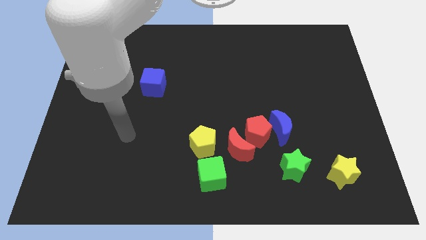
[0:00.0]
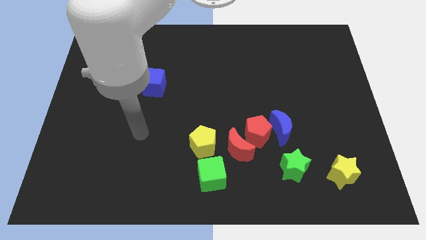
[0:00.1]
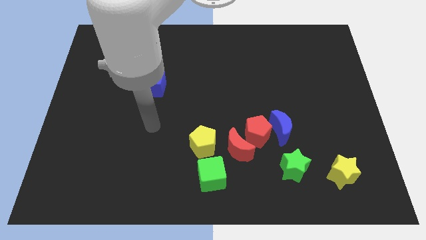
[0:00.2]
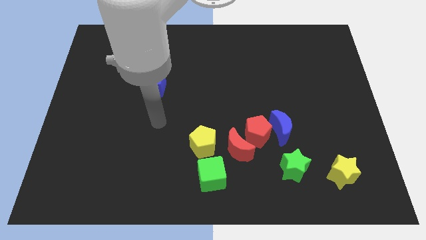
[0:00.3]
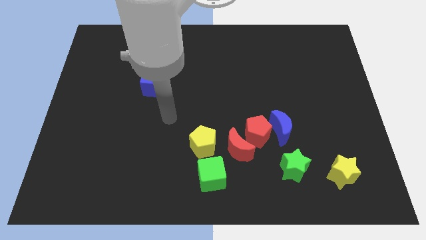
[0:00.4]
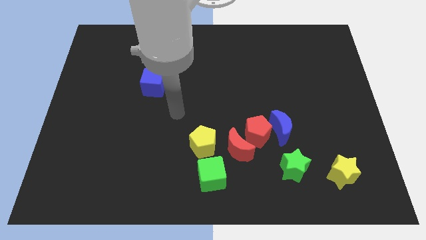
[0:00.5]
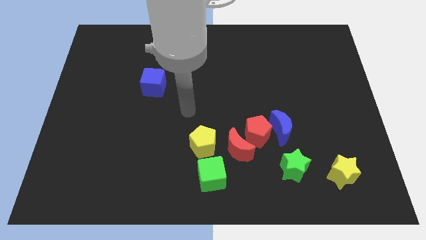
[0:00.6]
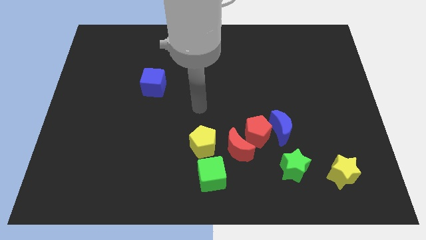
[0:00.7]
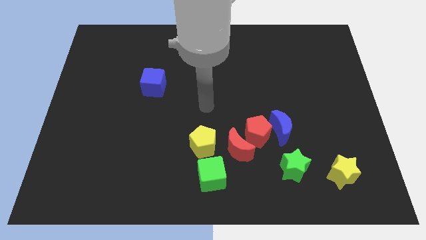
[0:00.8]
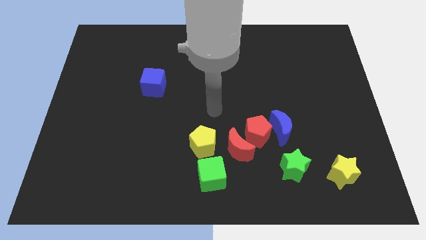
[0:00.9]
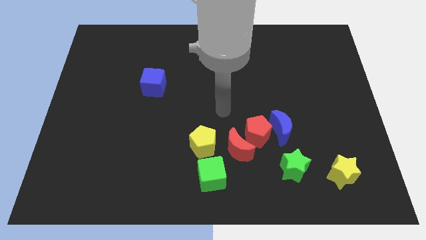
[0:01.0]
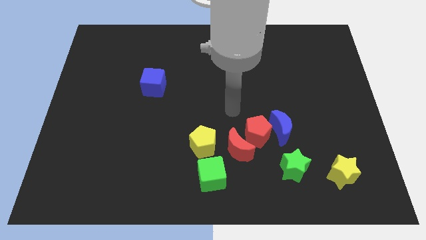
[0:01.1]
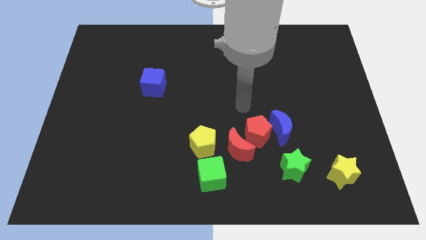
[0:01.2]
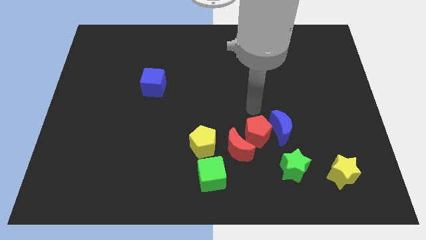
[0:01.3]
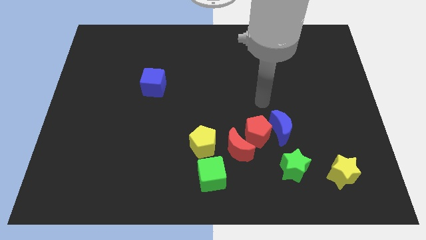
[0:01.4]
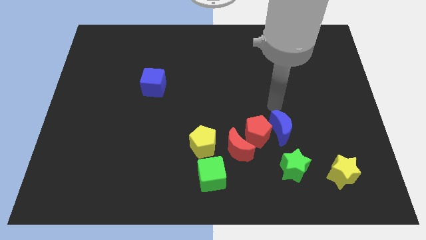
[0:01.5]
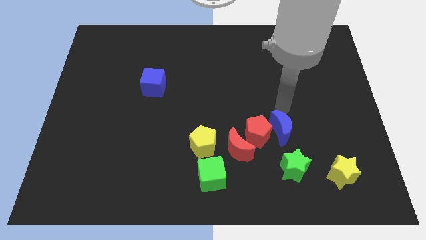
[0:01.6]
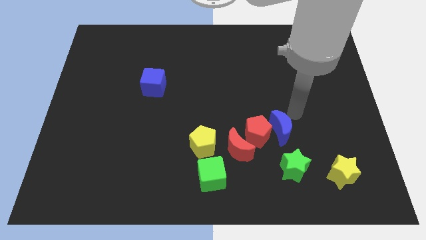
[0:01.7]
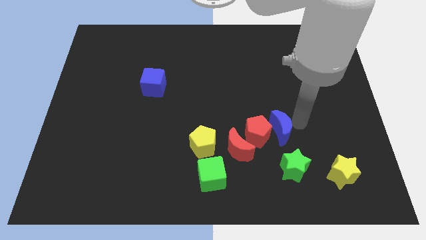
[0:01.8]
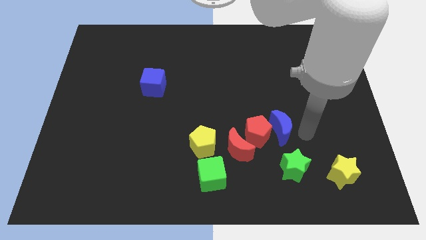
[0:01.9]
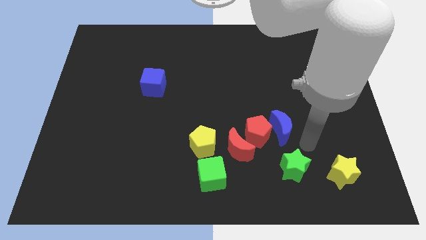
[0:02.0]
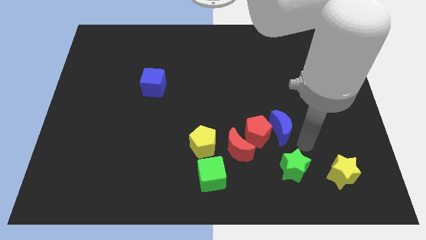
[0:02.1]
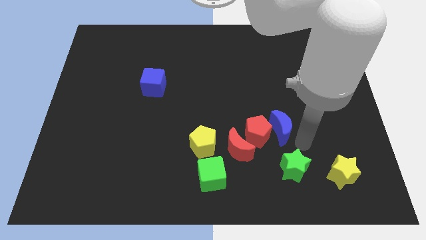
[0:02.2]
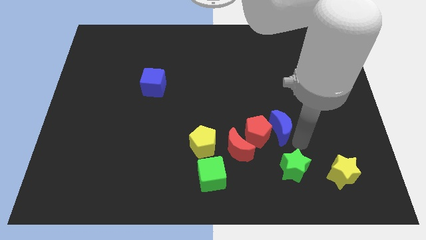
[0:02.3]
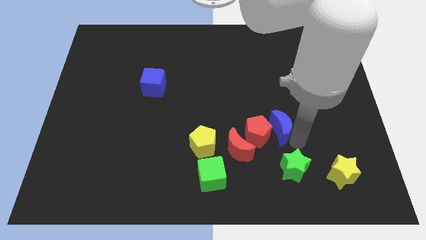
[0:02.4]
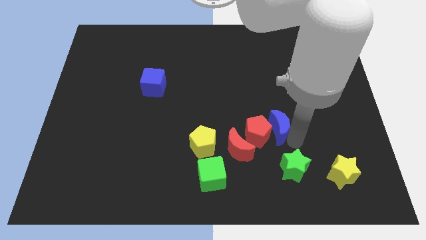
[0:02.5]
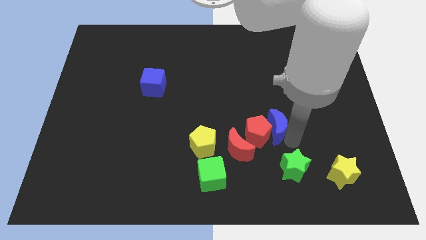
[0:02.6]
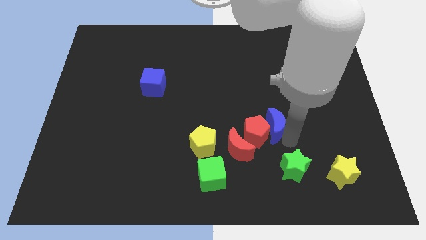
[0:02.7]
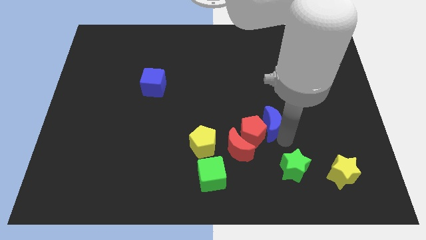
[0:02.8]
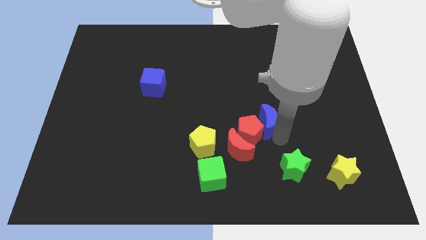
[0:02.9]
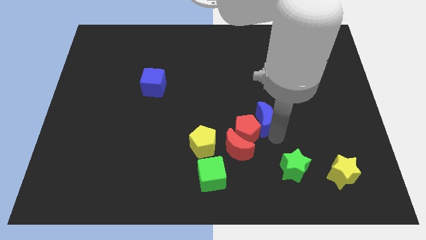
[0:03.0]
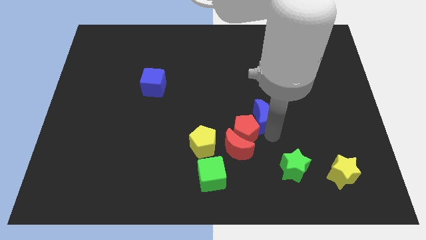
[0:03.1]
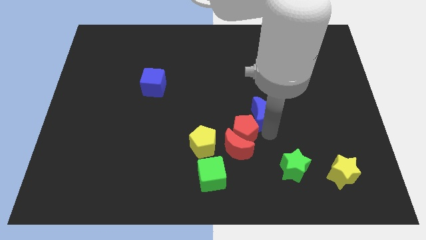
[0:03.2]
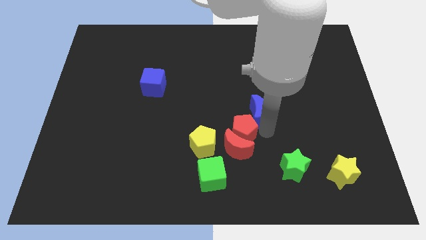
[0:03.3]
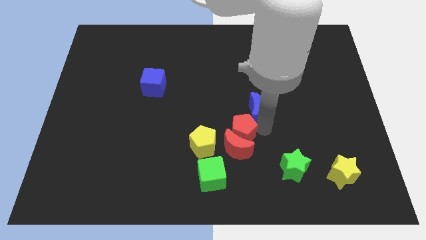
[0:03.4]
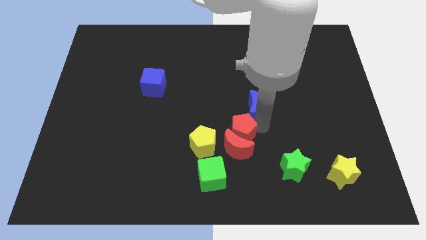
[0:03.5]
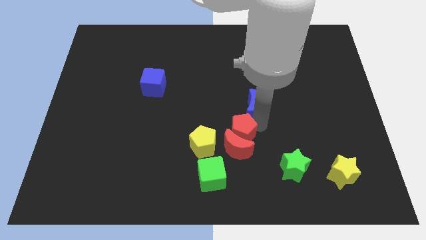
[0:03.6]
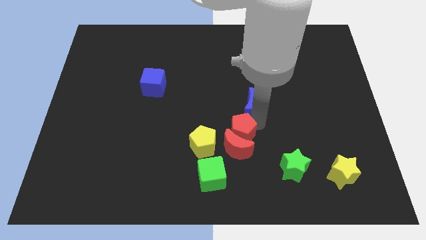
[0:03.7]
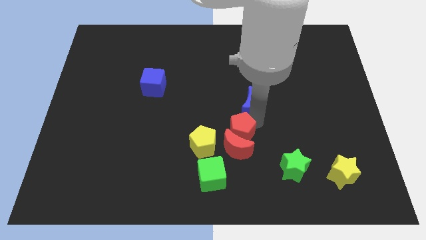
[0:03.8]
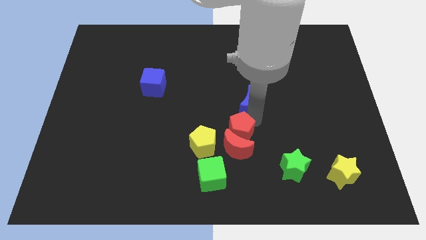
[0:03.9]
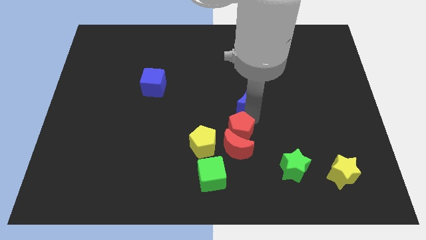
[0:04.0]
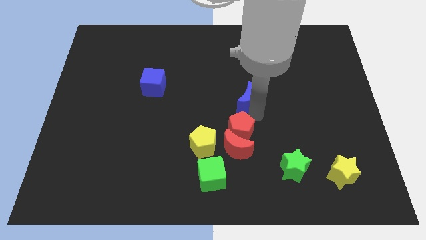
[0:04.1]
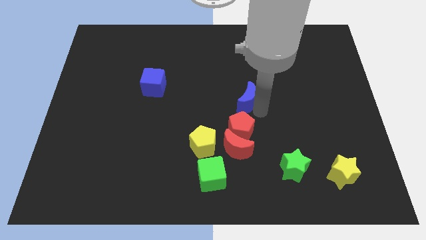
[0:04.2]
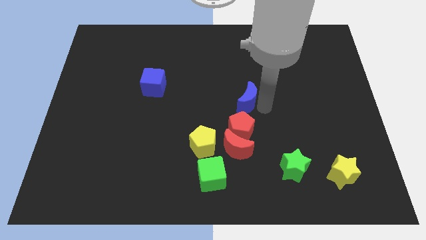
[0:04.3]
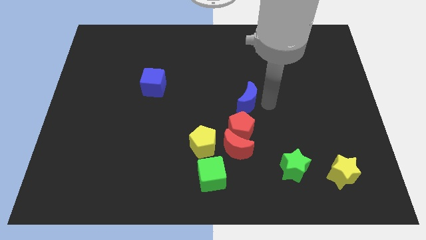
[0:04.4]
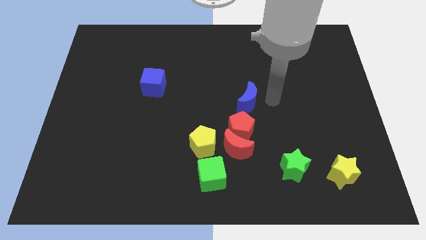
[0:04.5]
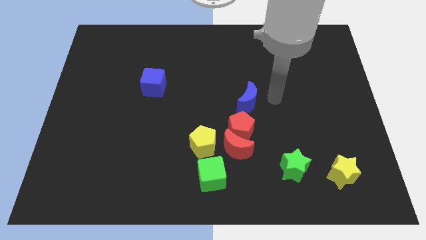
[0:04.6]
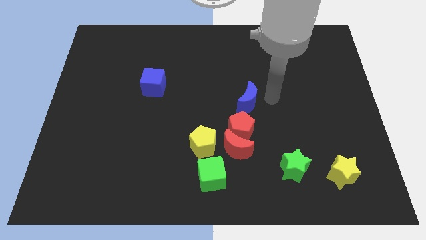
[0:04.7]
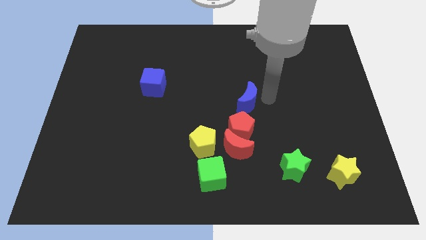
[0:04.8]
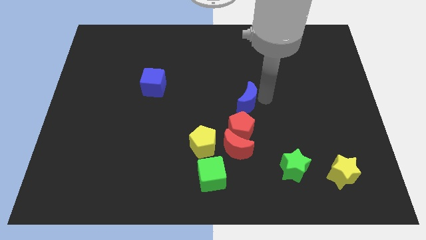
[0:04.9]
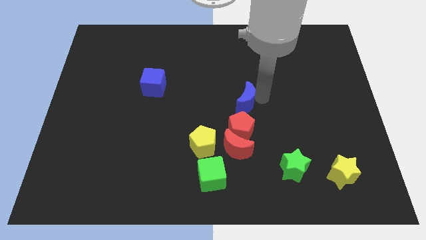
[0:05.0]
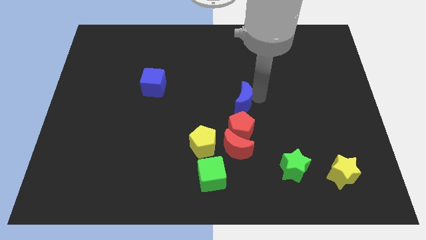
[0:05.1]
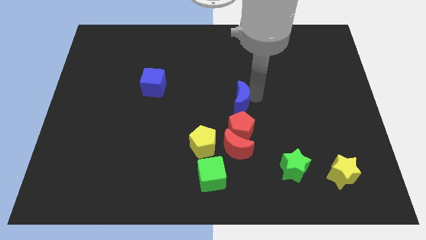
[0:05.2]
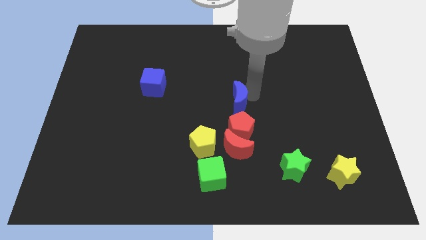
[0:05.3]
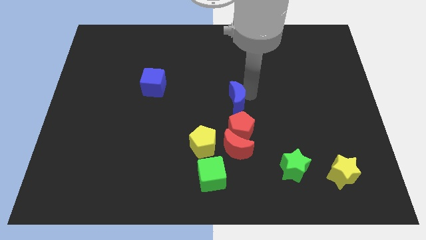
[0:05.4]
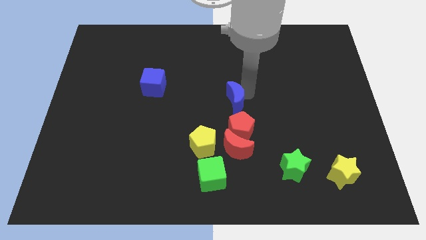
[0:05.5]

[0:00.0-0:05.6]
slightly push the blue moon left

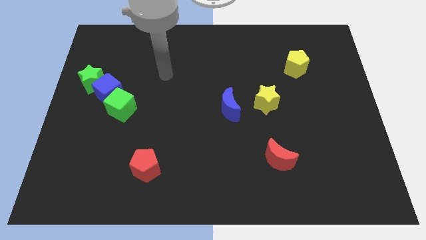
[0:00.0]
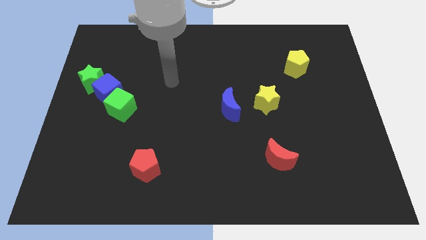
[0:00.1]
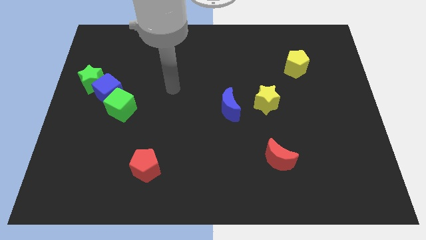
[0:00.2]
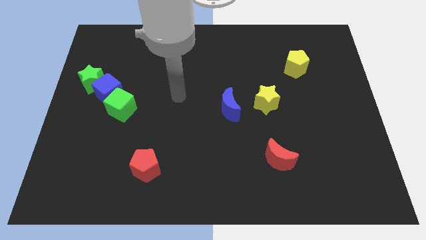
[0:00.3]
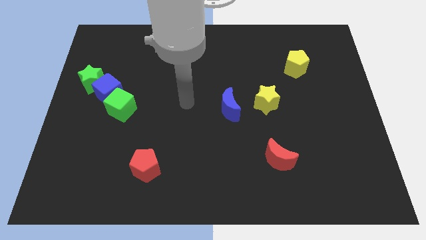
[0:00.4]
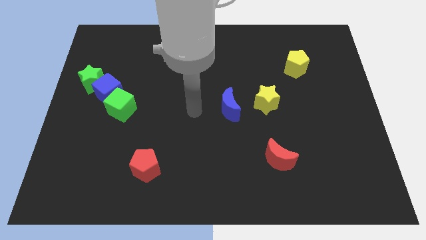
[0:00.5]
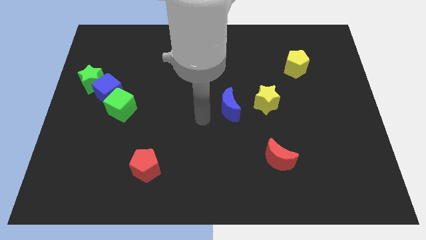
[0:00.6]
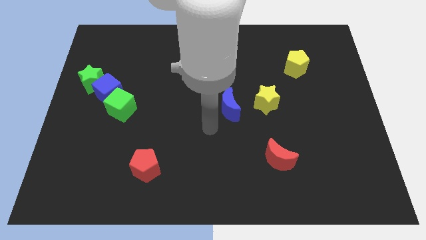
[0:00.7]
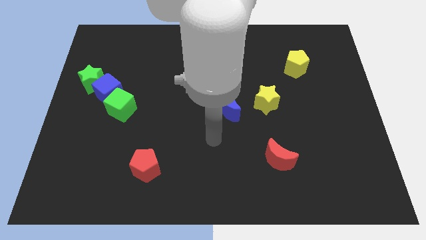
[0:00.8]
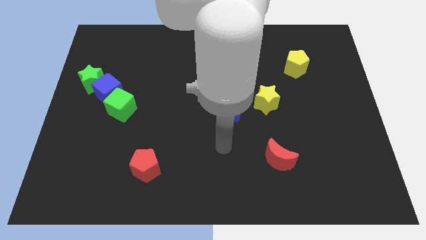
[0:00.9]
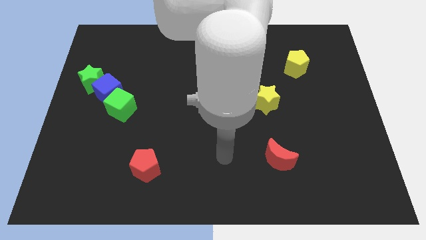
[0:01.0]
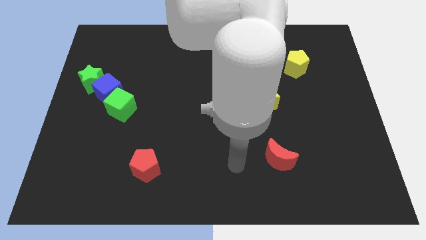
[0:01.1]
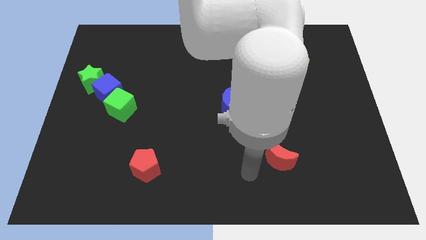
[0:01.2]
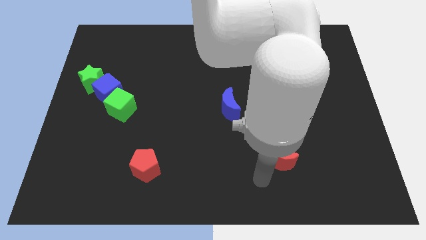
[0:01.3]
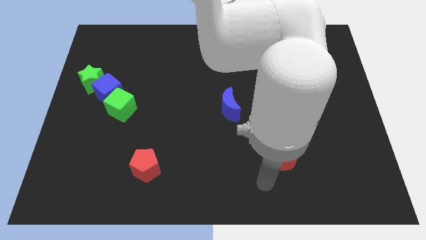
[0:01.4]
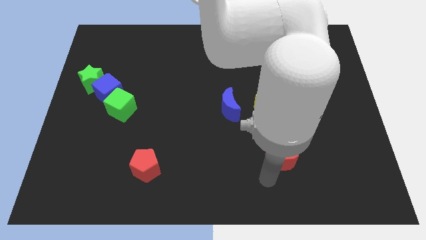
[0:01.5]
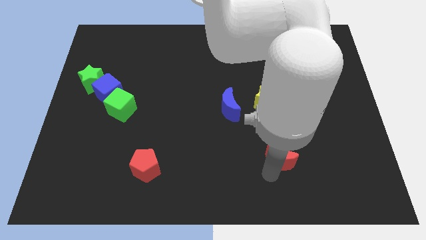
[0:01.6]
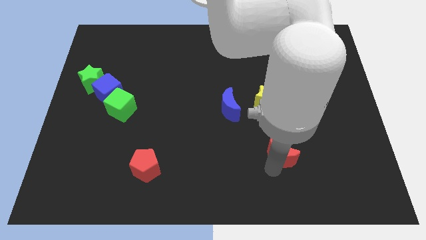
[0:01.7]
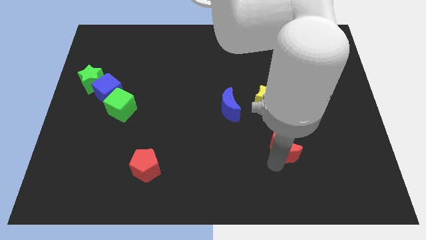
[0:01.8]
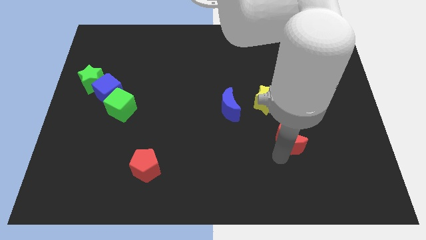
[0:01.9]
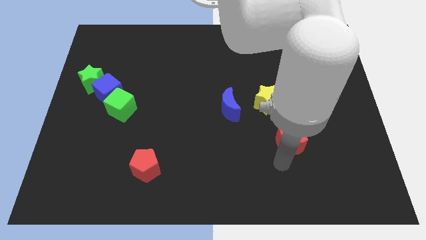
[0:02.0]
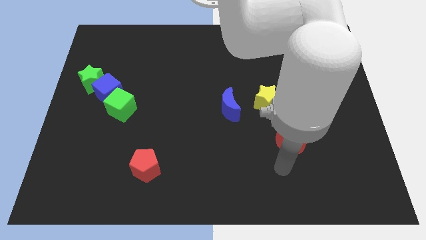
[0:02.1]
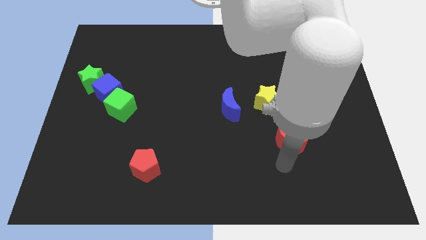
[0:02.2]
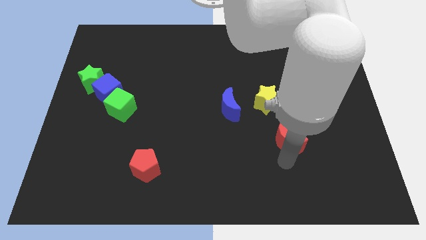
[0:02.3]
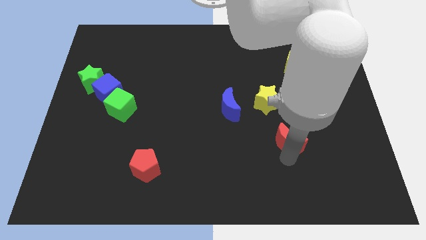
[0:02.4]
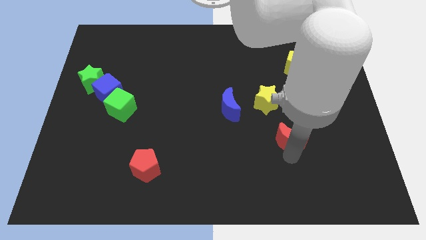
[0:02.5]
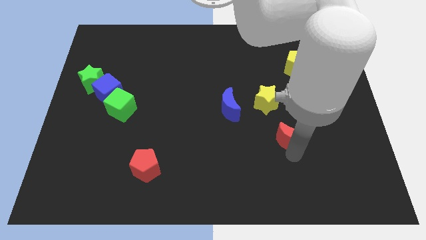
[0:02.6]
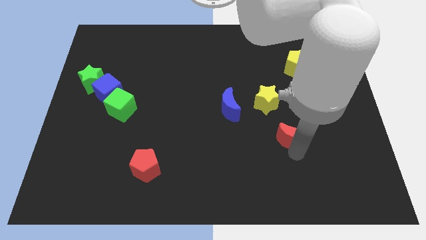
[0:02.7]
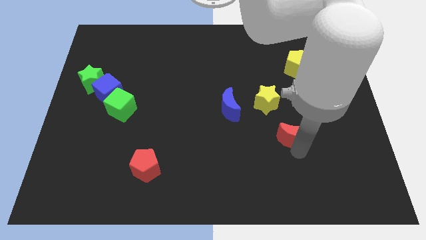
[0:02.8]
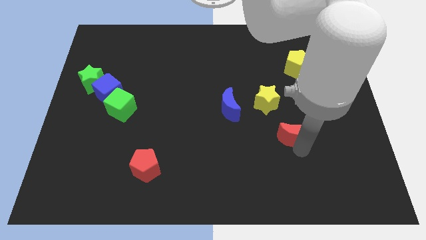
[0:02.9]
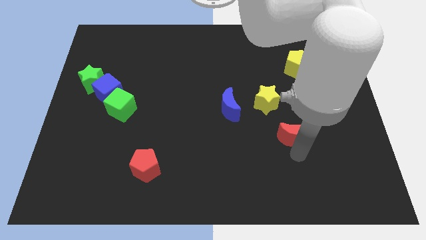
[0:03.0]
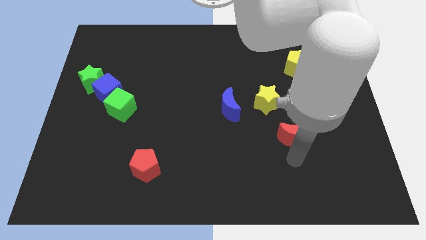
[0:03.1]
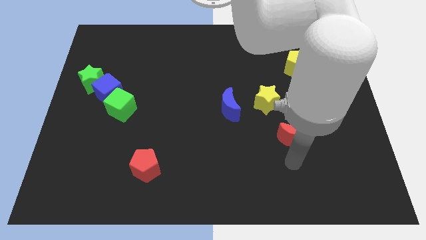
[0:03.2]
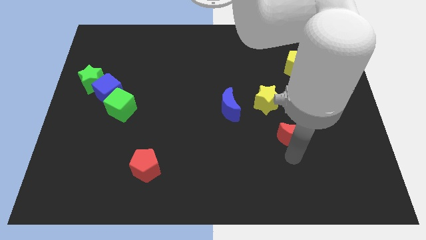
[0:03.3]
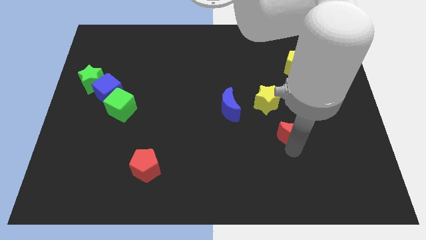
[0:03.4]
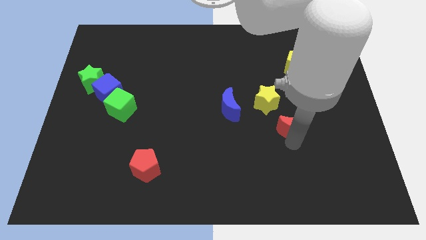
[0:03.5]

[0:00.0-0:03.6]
slide the red moon up a little
